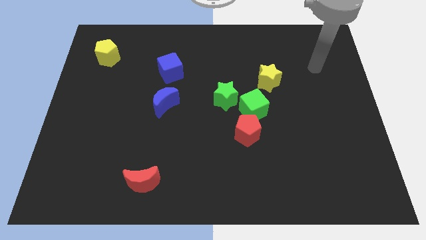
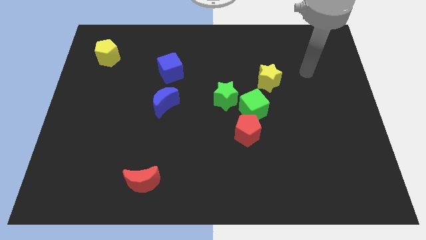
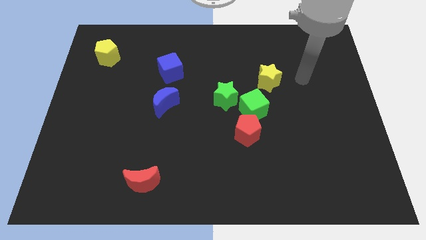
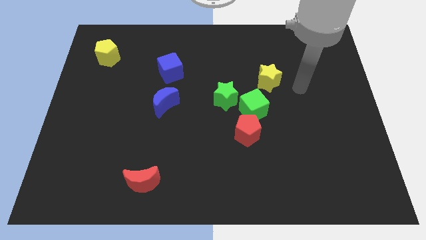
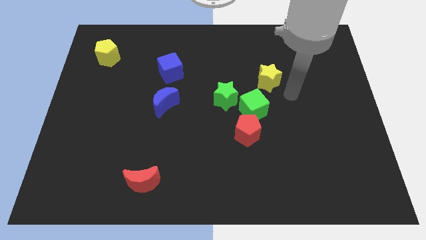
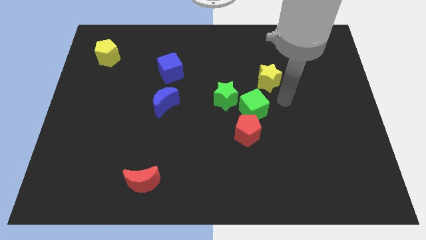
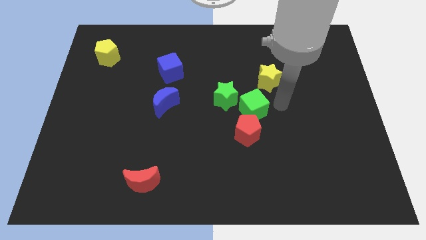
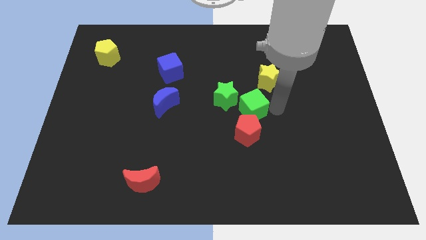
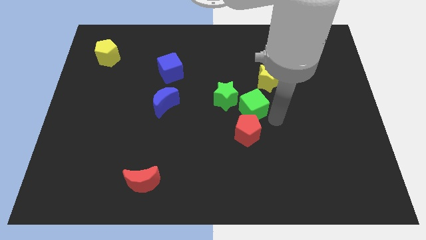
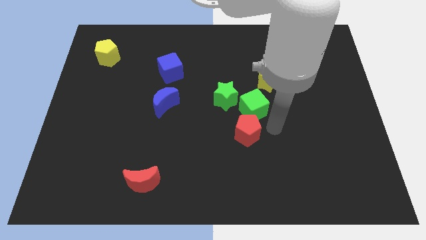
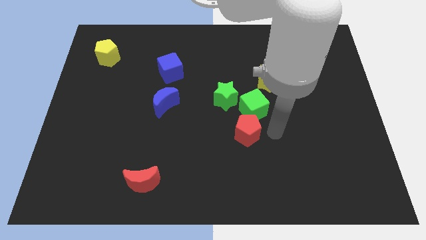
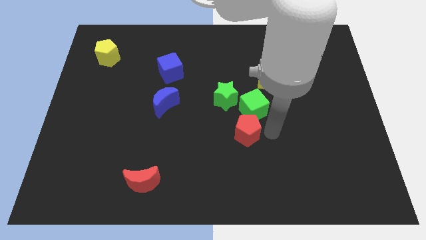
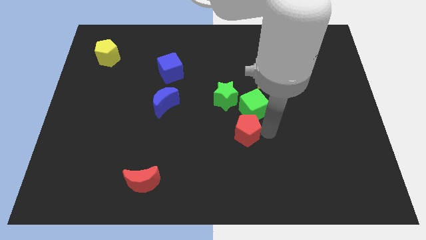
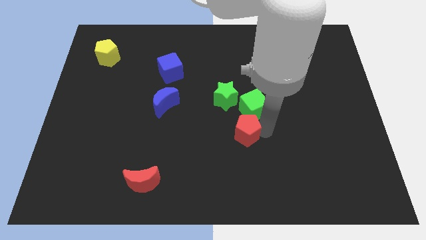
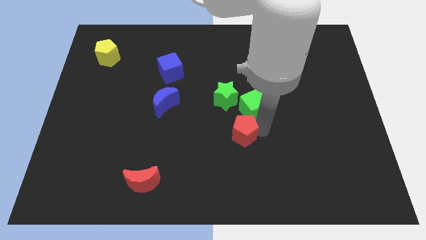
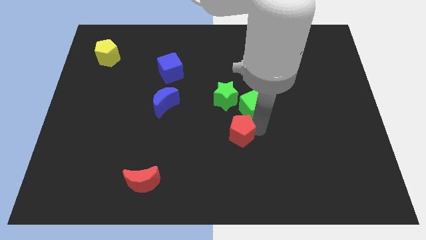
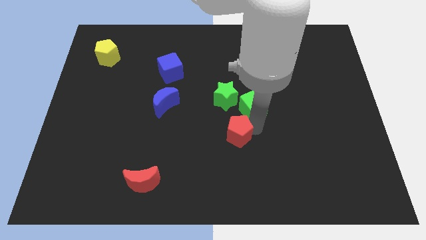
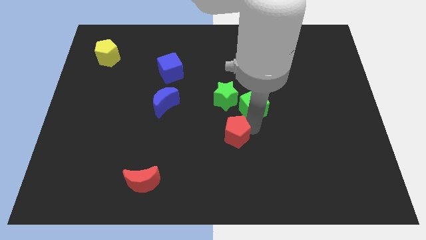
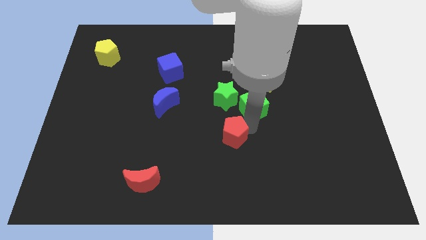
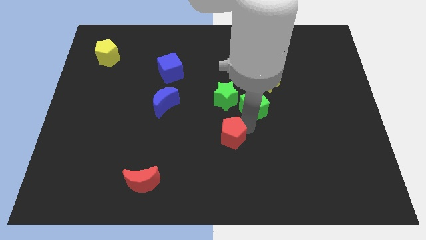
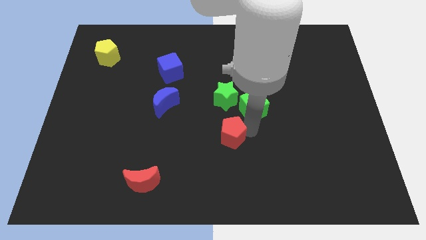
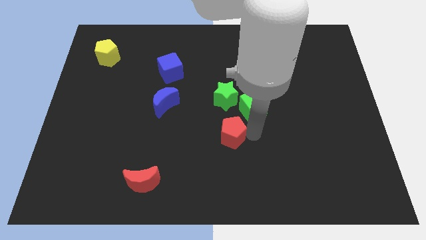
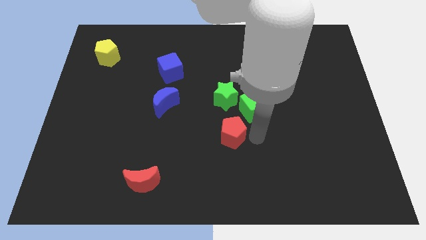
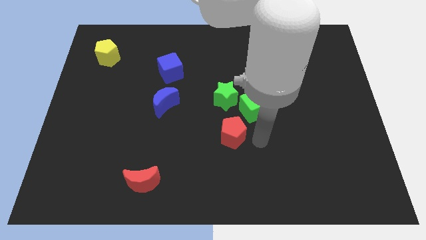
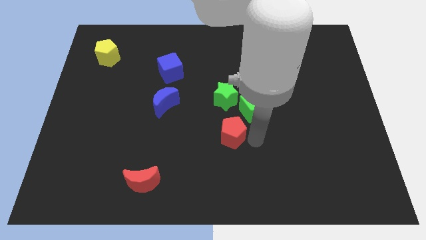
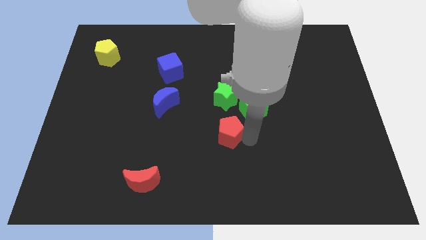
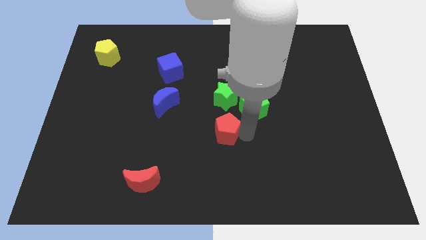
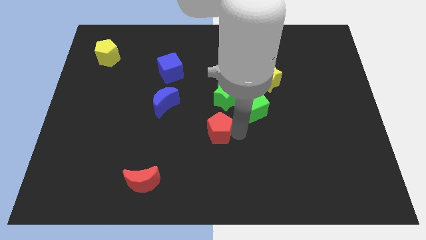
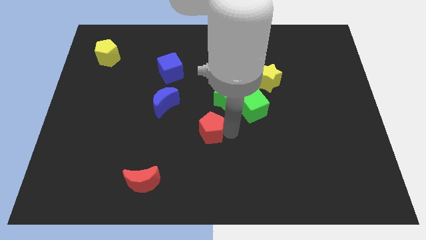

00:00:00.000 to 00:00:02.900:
slightly push the red pentagon to the left

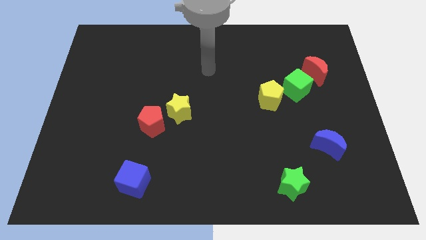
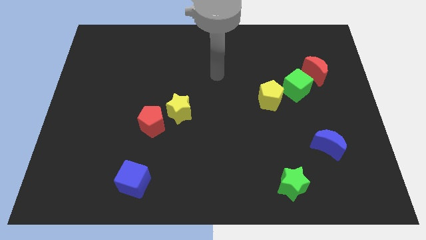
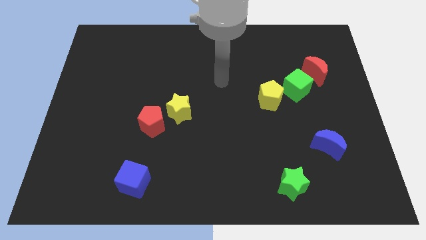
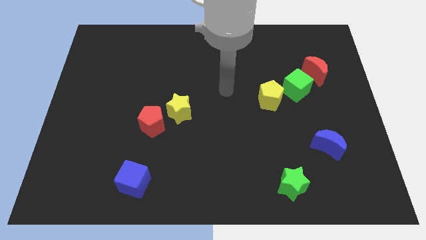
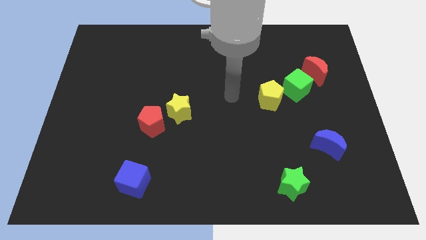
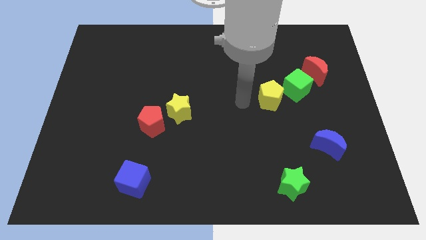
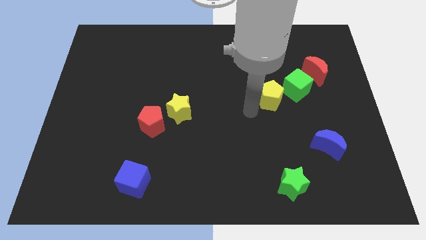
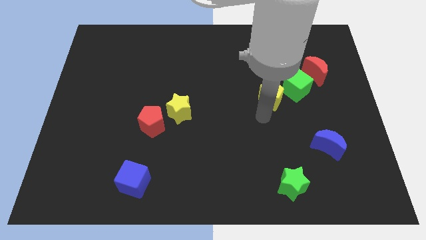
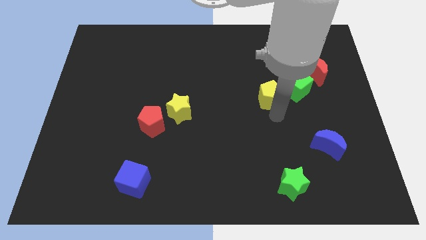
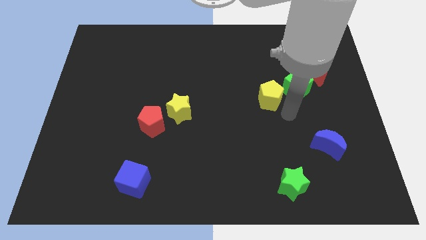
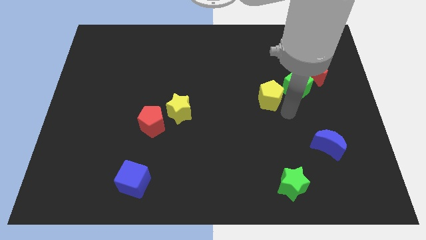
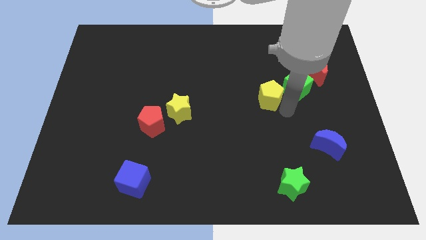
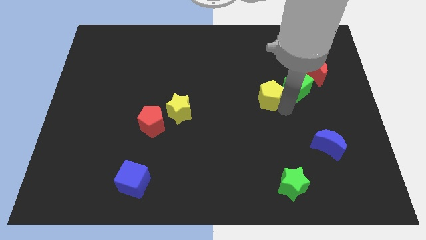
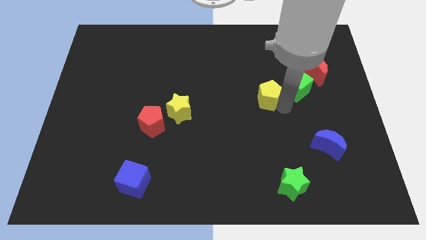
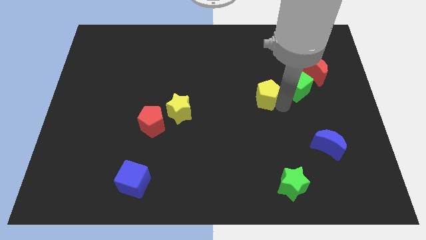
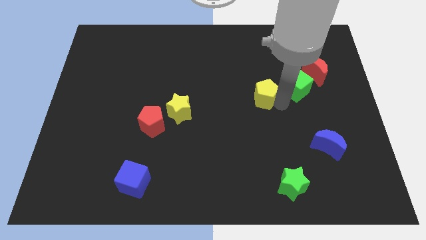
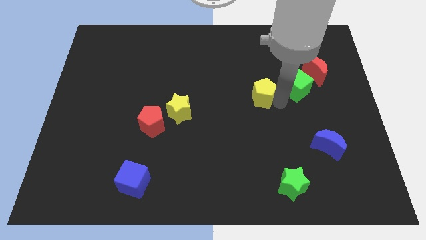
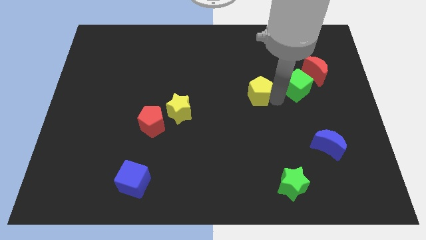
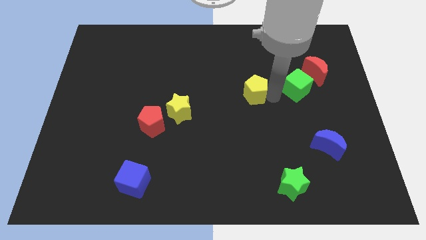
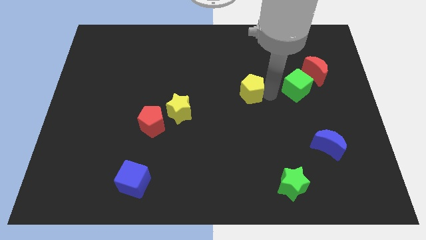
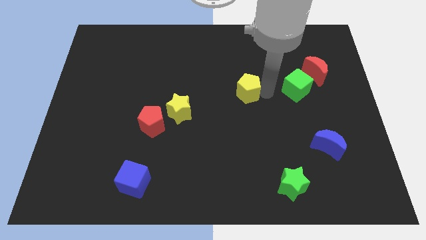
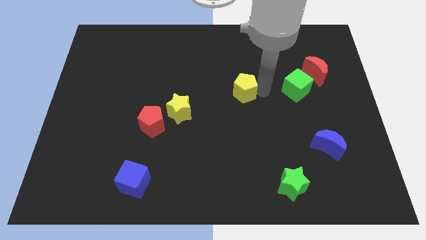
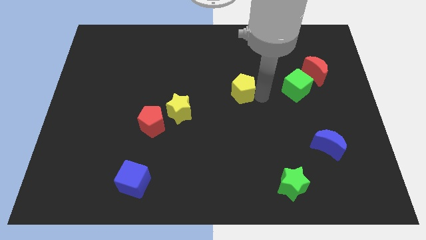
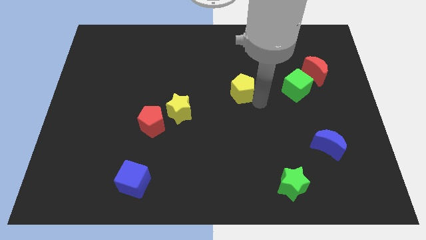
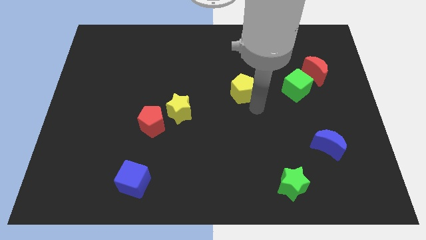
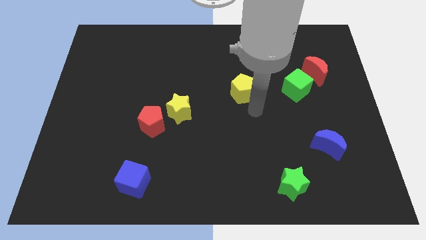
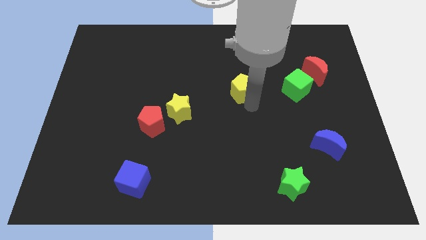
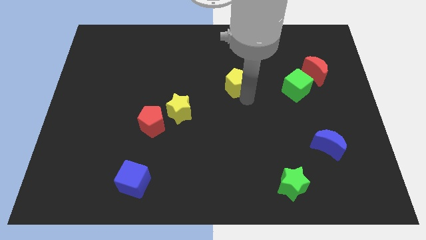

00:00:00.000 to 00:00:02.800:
slide the yellow pentagon up and left slightly

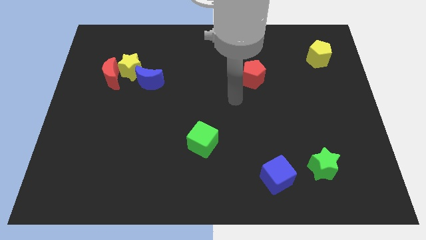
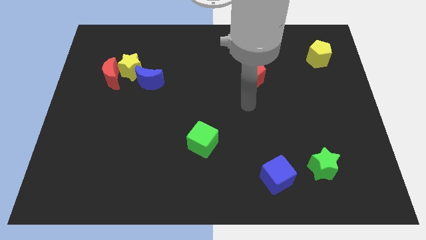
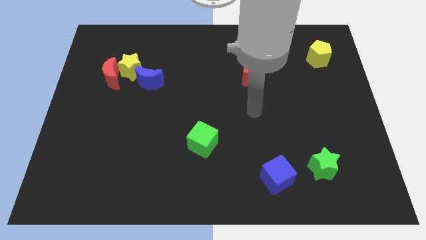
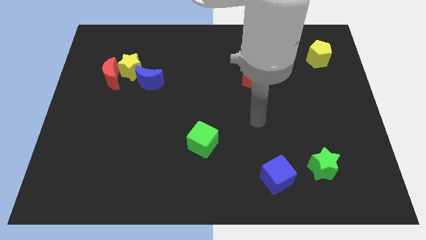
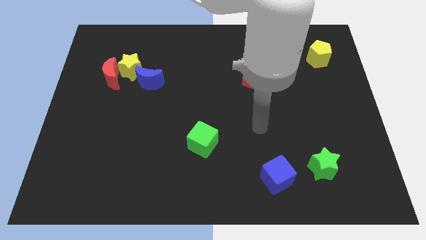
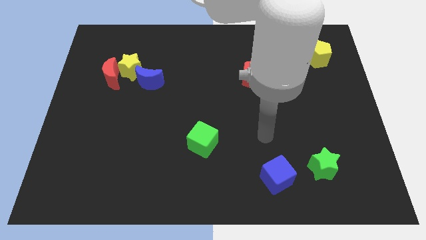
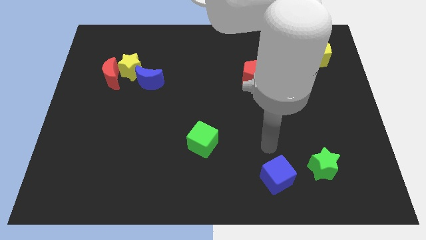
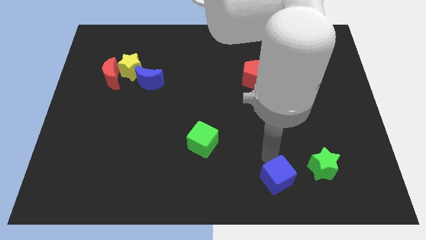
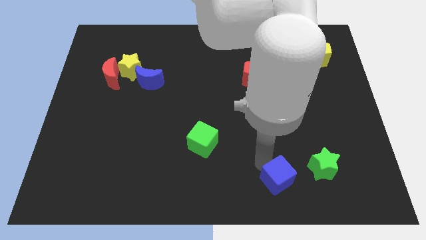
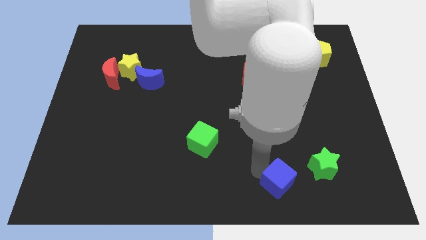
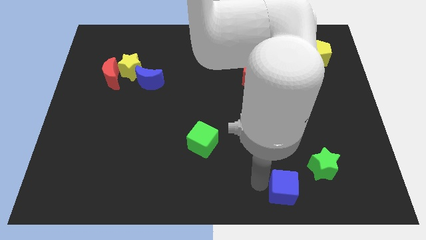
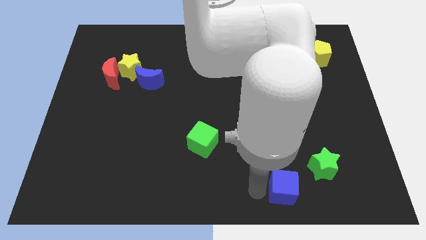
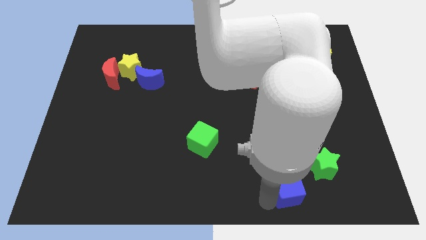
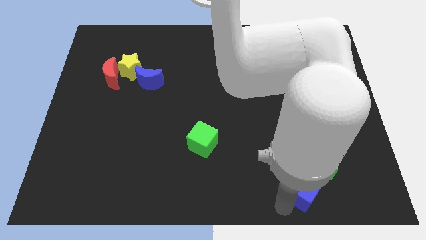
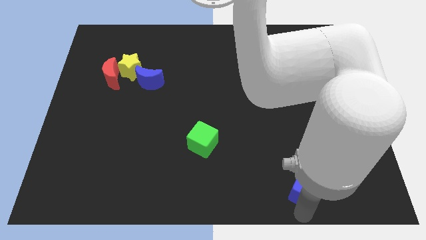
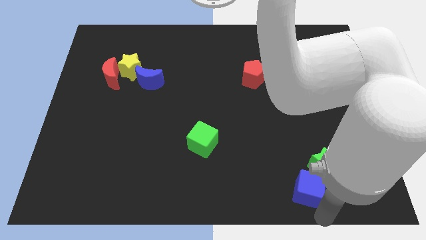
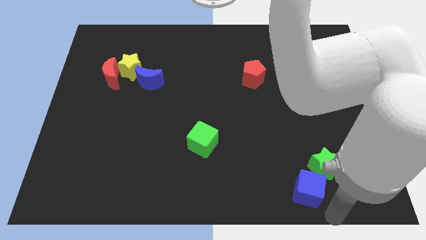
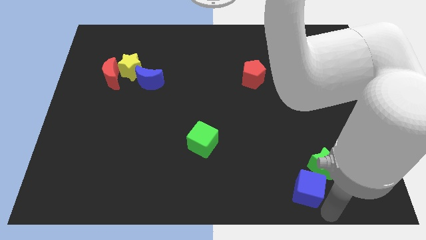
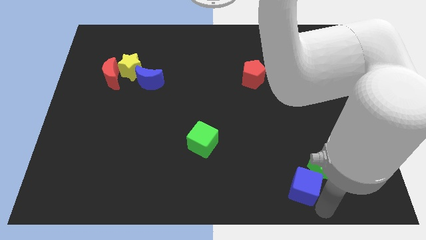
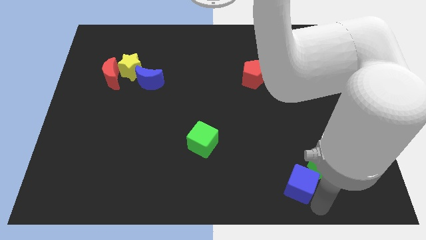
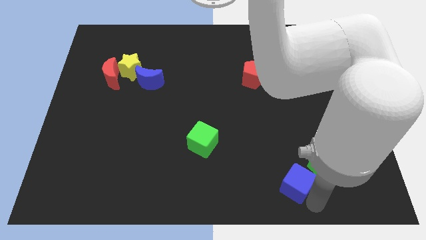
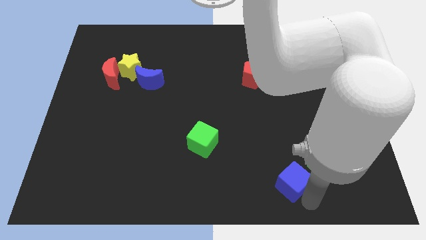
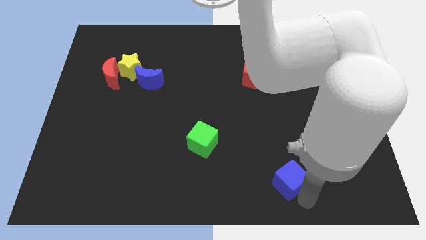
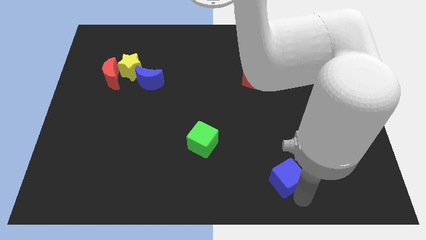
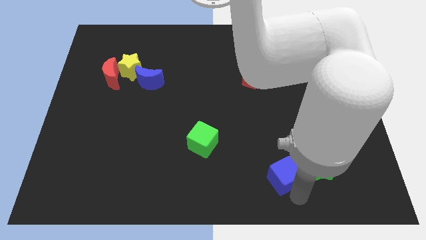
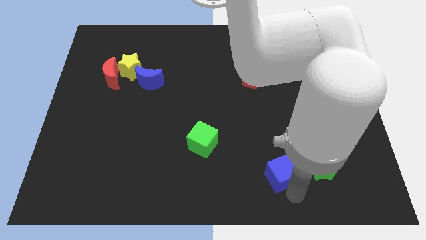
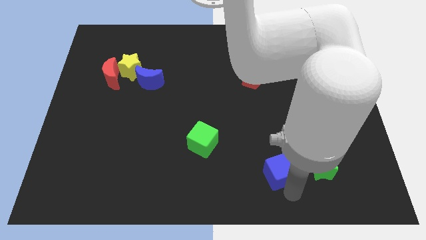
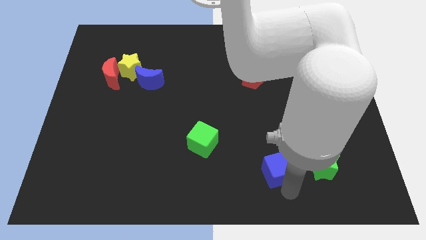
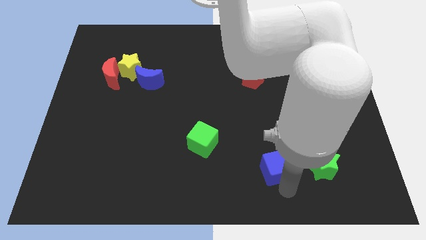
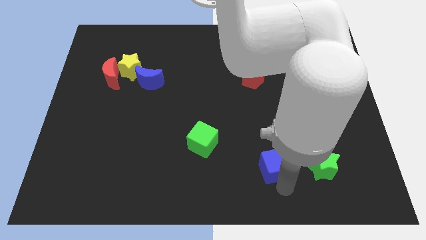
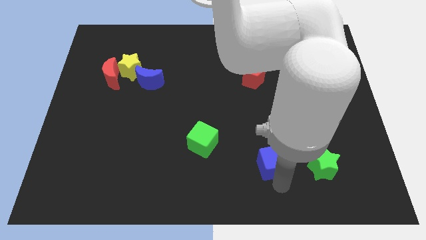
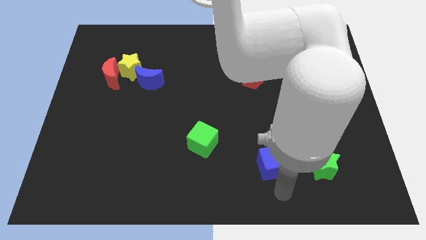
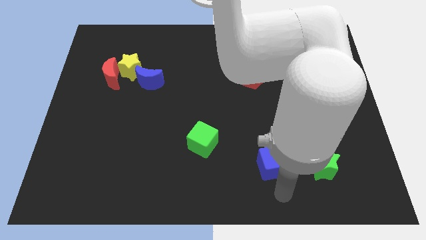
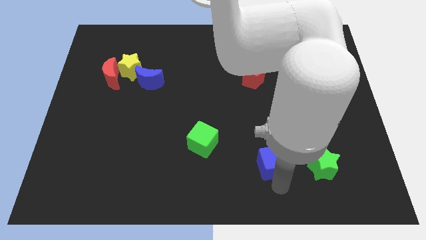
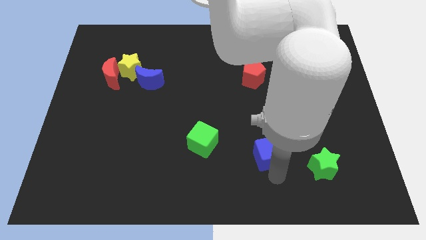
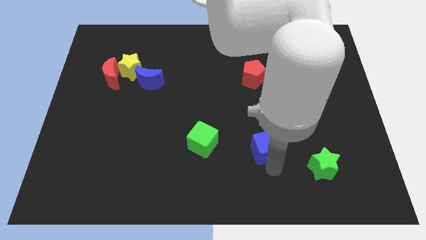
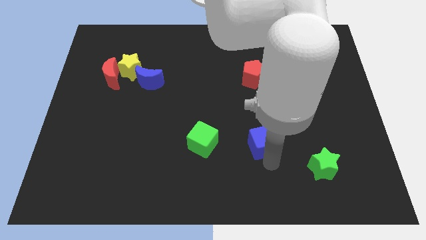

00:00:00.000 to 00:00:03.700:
move the blue cube a little bit upwards
